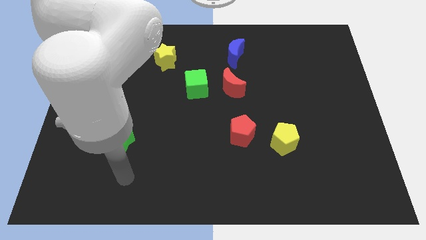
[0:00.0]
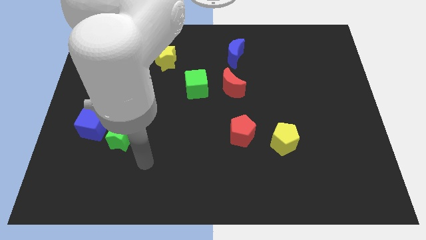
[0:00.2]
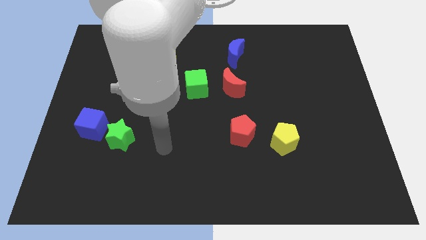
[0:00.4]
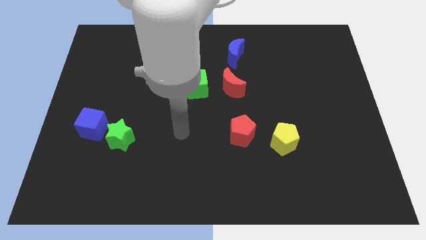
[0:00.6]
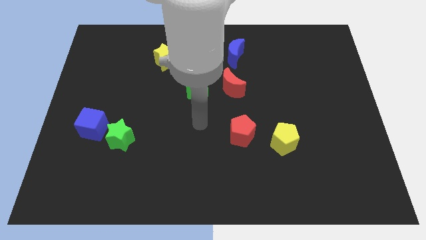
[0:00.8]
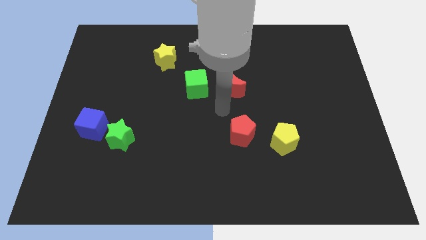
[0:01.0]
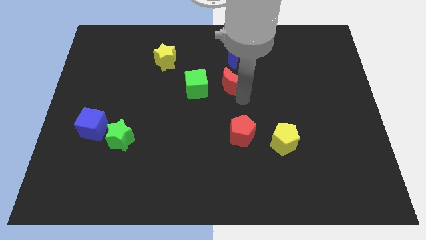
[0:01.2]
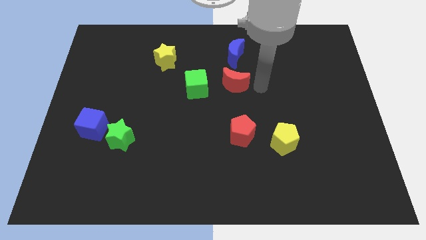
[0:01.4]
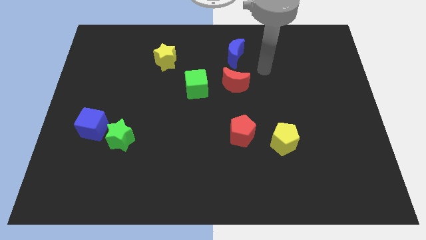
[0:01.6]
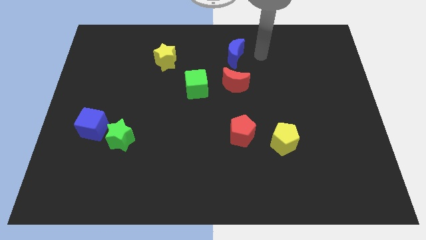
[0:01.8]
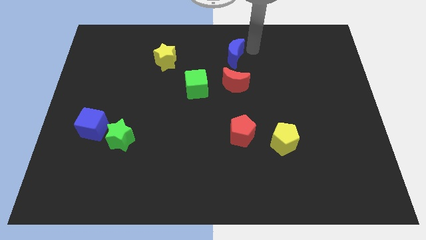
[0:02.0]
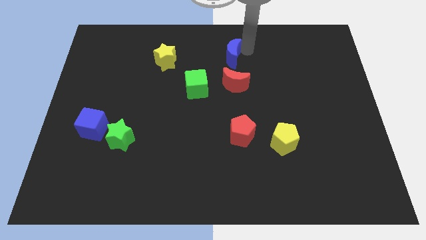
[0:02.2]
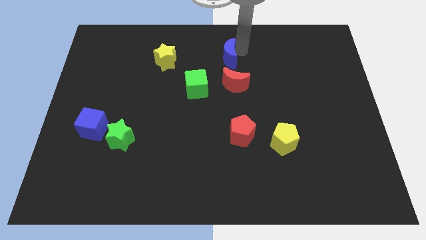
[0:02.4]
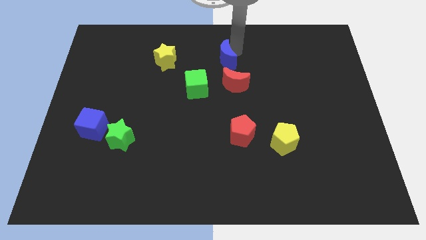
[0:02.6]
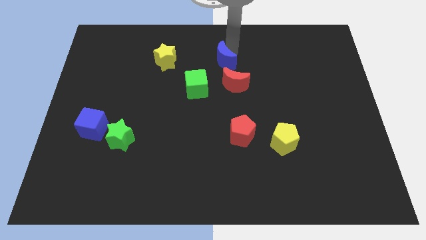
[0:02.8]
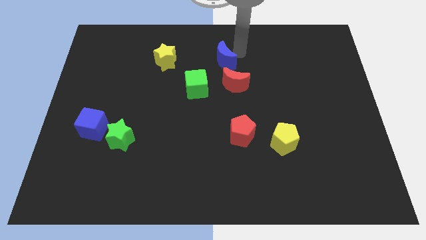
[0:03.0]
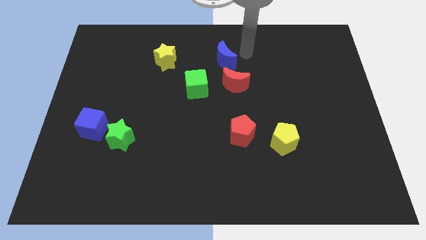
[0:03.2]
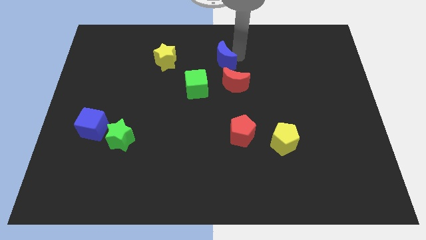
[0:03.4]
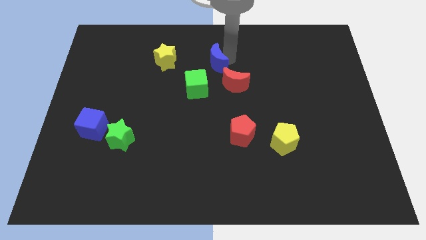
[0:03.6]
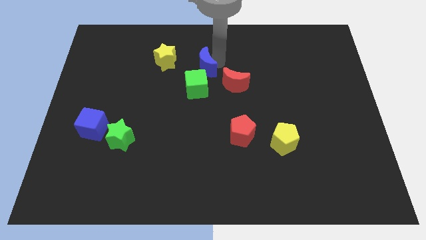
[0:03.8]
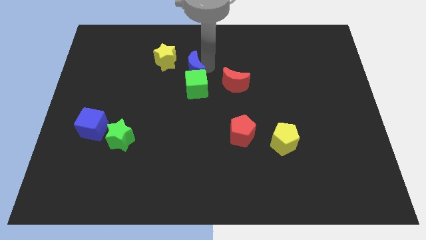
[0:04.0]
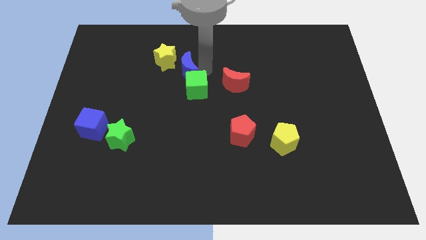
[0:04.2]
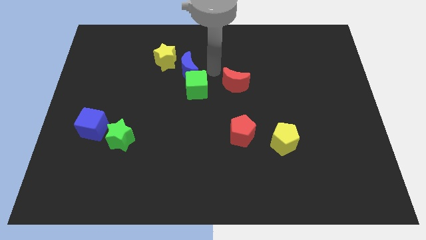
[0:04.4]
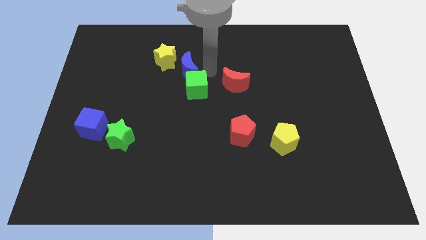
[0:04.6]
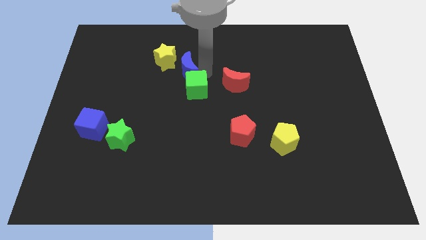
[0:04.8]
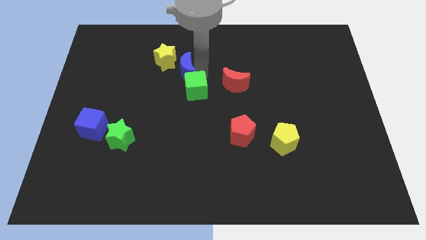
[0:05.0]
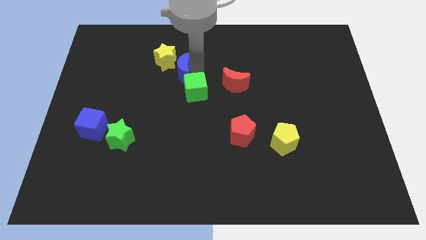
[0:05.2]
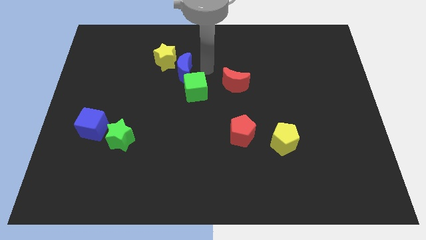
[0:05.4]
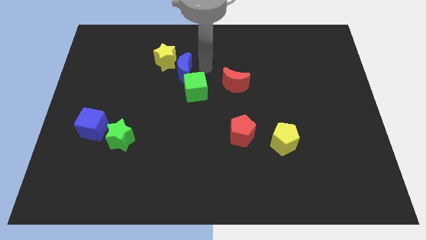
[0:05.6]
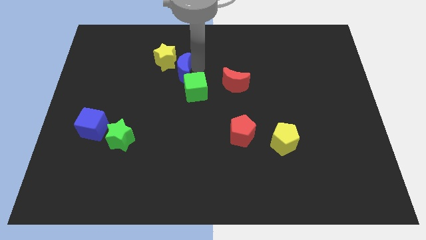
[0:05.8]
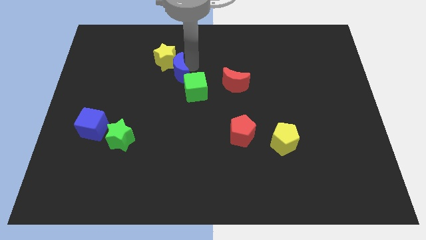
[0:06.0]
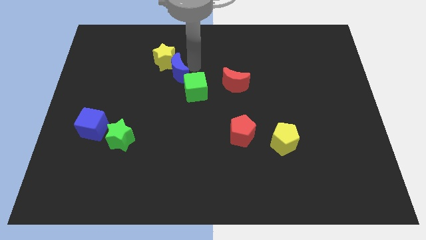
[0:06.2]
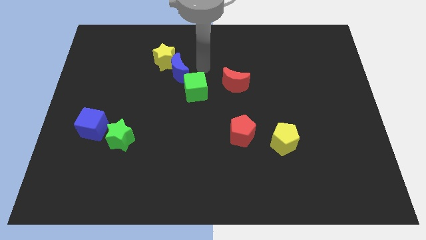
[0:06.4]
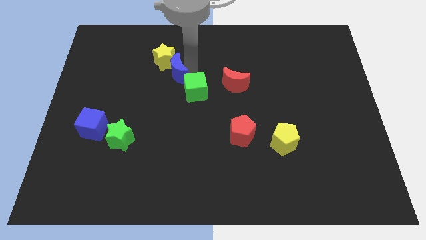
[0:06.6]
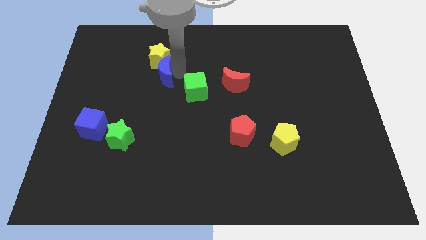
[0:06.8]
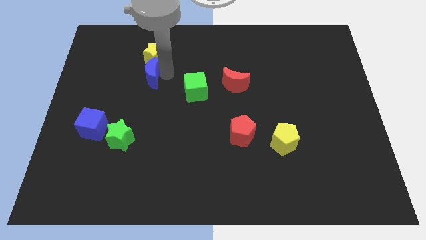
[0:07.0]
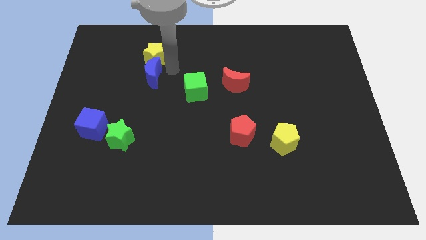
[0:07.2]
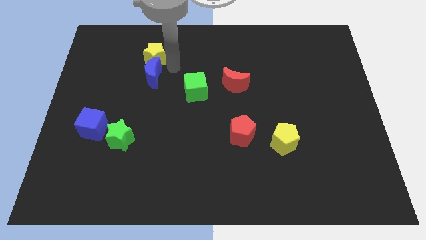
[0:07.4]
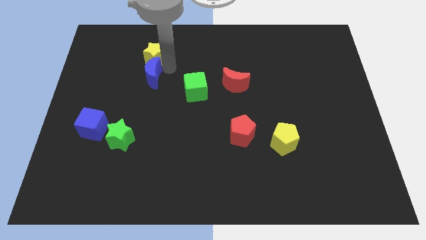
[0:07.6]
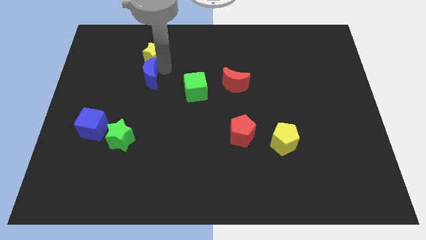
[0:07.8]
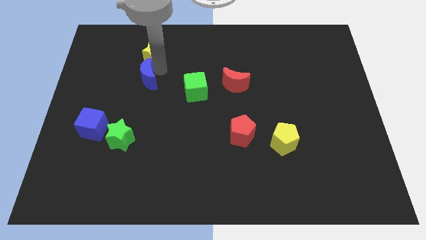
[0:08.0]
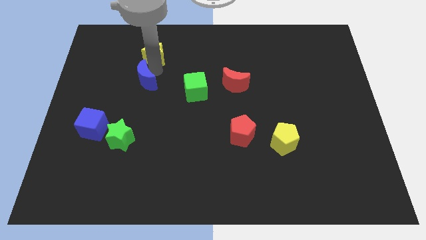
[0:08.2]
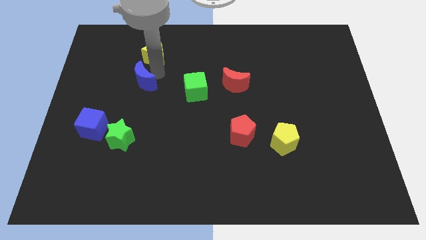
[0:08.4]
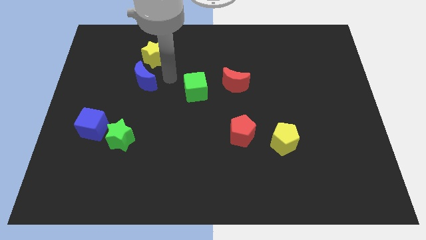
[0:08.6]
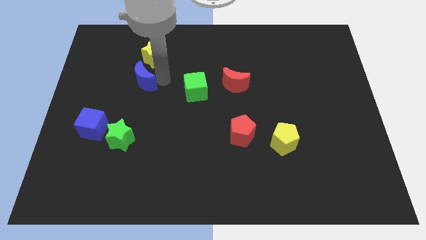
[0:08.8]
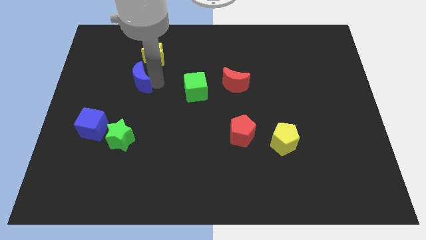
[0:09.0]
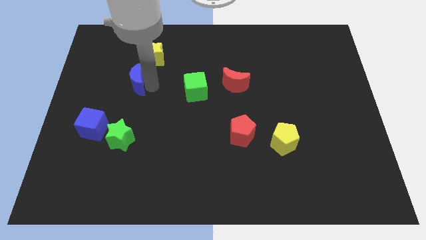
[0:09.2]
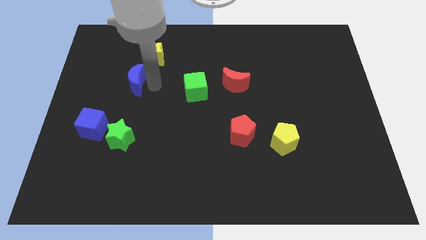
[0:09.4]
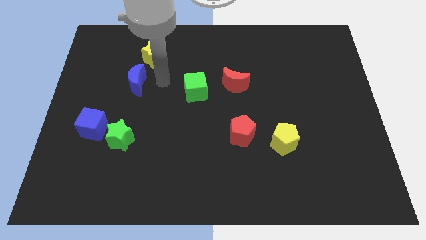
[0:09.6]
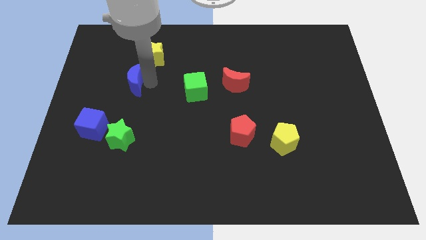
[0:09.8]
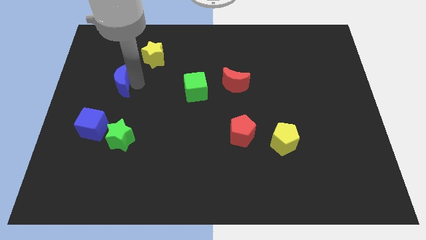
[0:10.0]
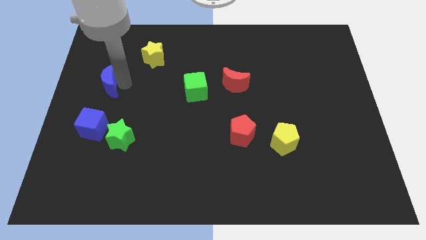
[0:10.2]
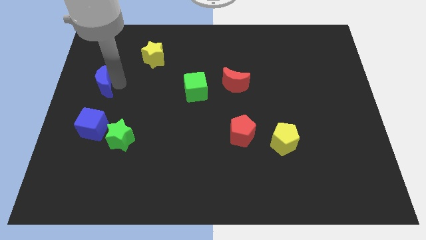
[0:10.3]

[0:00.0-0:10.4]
put the blue moon to the center left

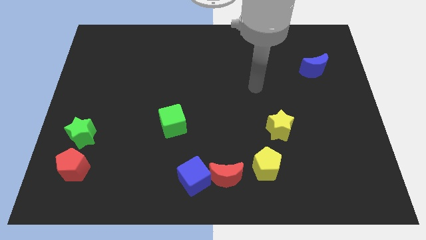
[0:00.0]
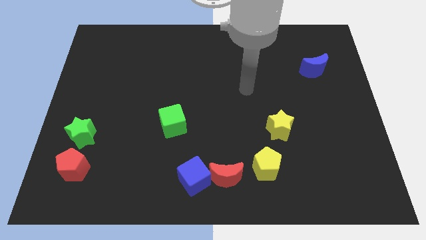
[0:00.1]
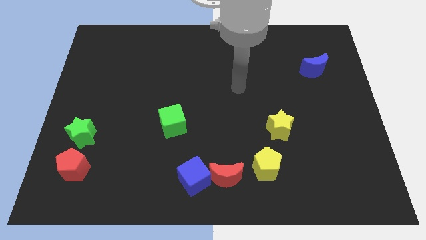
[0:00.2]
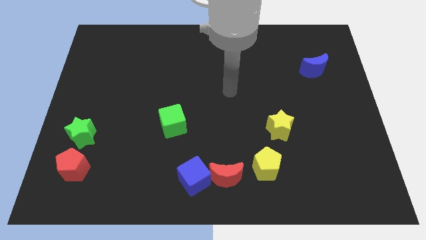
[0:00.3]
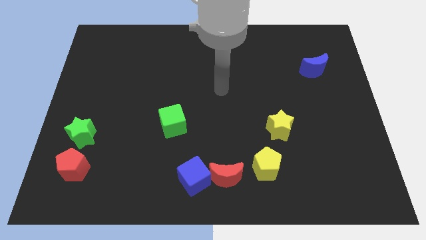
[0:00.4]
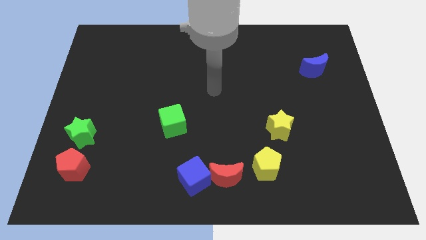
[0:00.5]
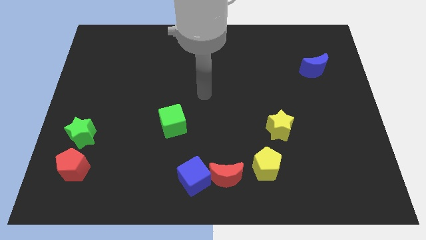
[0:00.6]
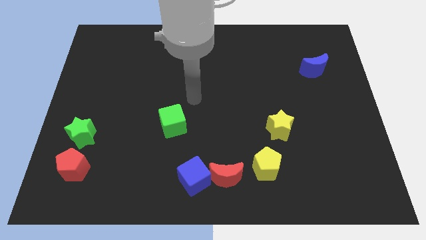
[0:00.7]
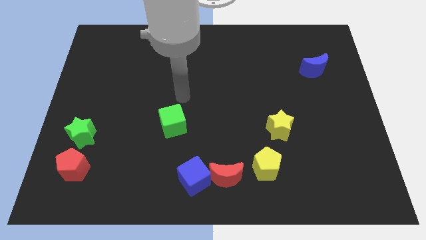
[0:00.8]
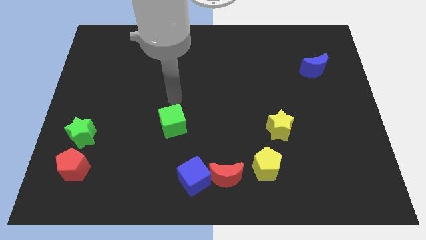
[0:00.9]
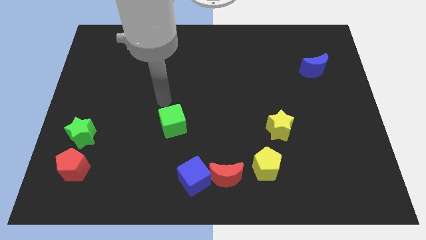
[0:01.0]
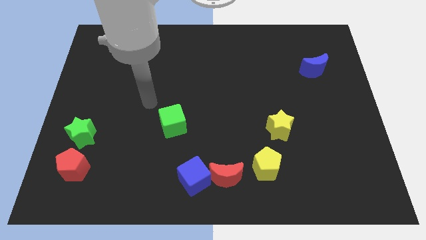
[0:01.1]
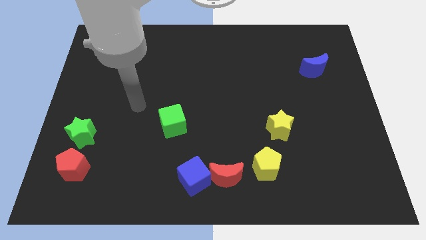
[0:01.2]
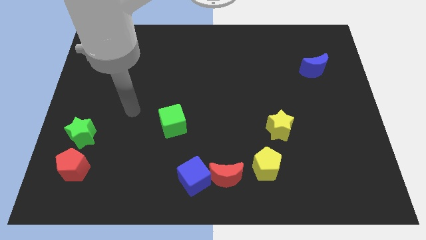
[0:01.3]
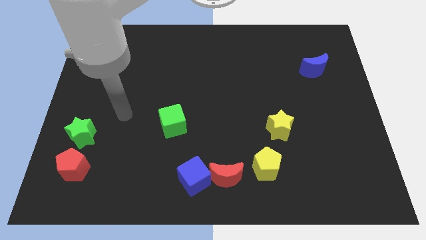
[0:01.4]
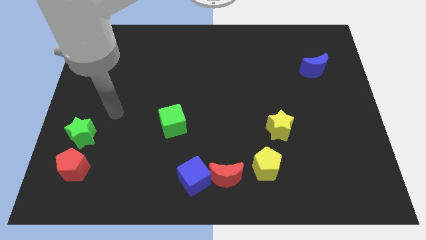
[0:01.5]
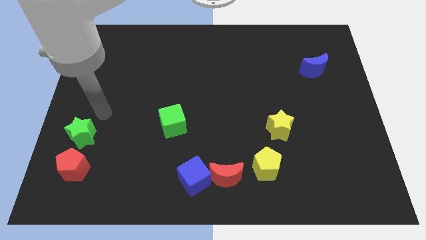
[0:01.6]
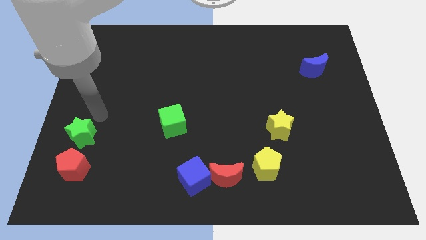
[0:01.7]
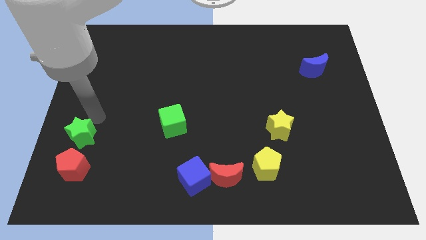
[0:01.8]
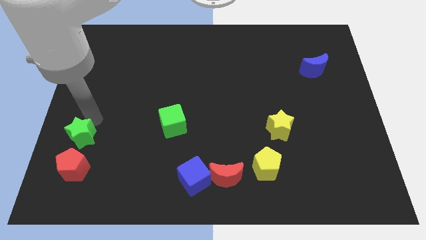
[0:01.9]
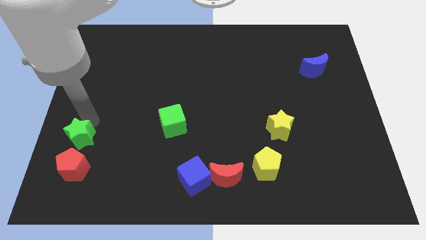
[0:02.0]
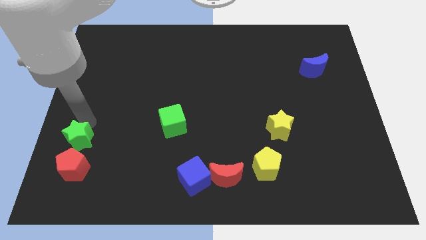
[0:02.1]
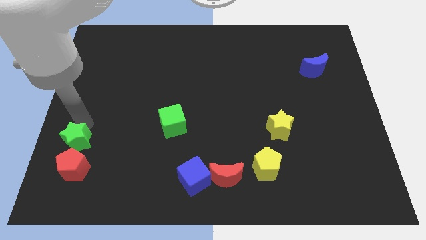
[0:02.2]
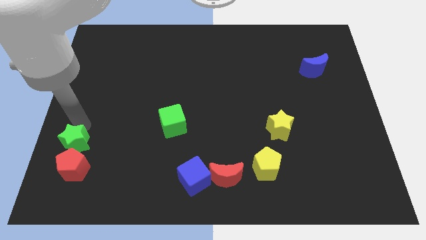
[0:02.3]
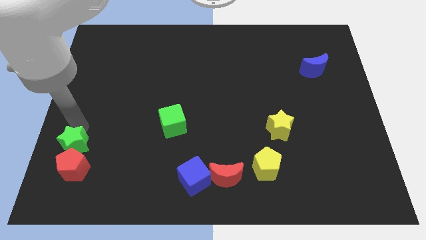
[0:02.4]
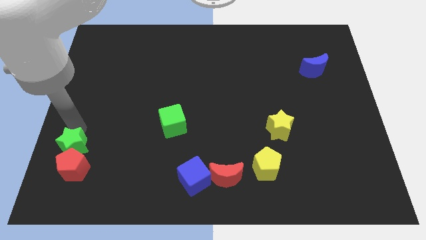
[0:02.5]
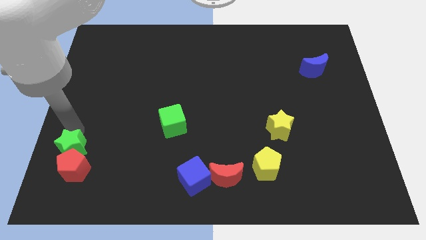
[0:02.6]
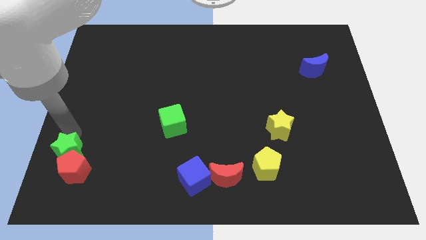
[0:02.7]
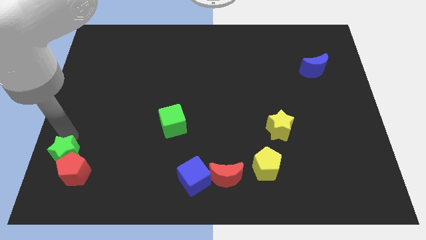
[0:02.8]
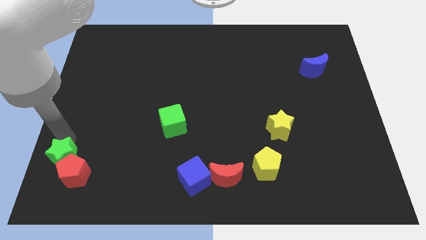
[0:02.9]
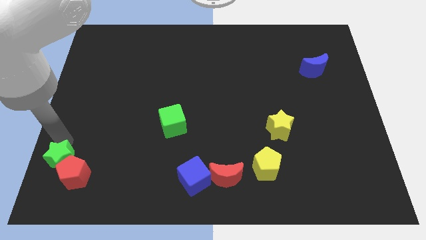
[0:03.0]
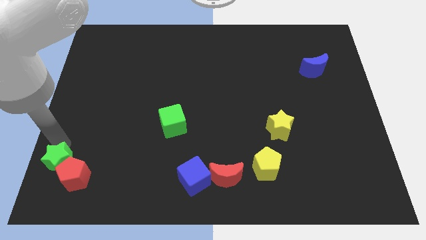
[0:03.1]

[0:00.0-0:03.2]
put the green star to the bottom left corner
